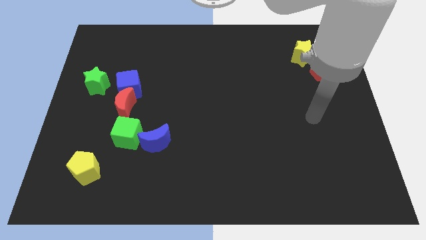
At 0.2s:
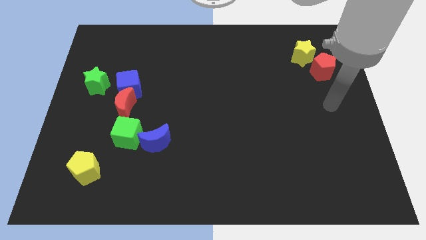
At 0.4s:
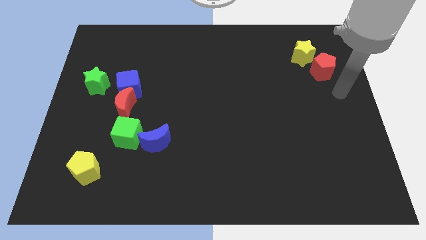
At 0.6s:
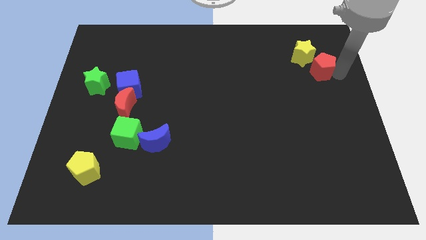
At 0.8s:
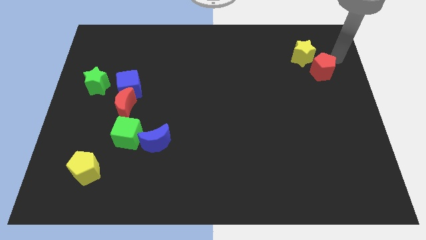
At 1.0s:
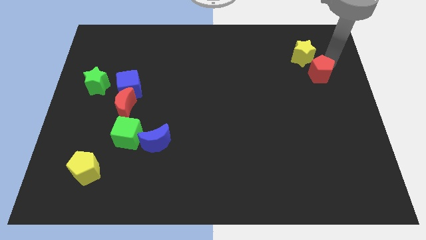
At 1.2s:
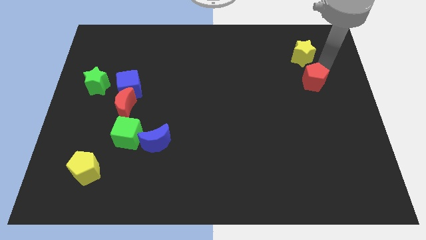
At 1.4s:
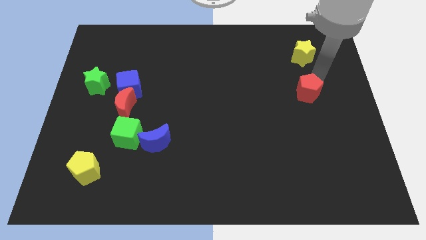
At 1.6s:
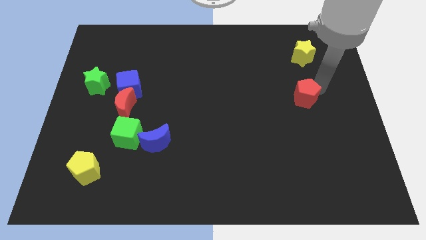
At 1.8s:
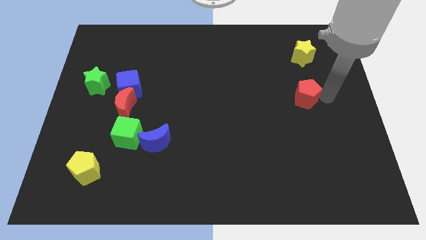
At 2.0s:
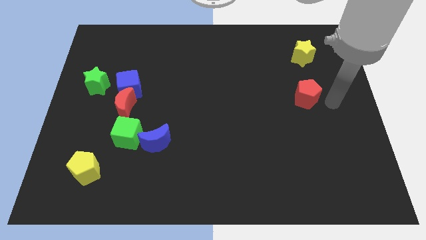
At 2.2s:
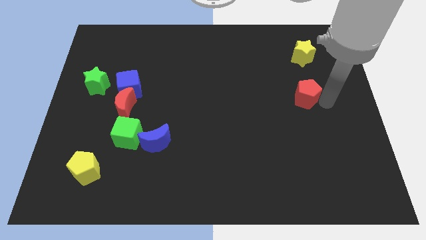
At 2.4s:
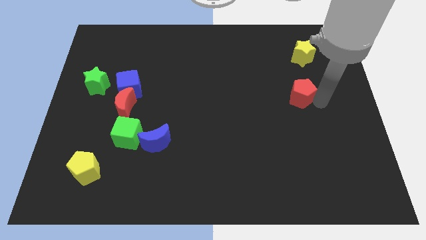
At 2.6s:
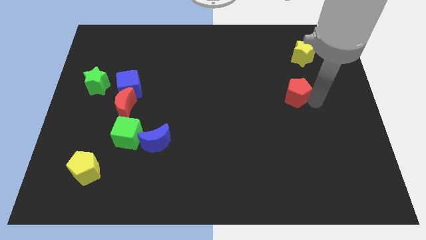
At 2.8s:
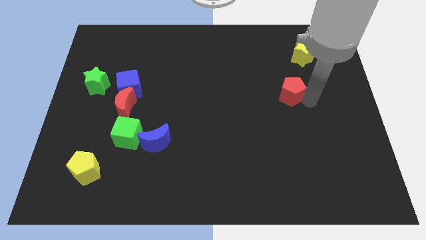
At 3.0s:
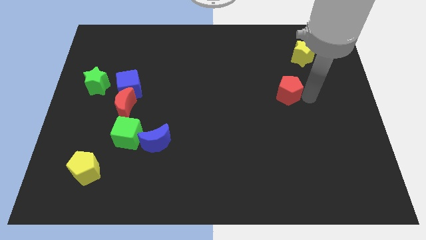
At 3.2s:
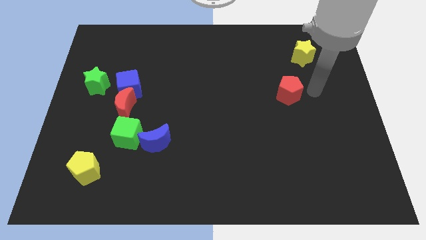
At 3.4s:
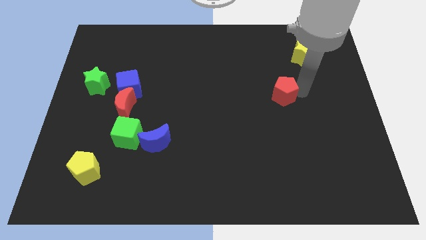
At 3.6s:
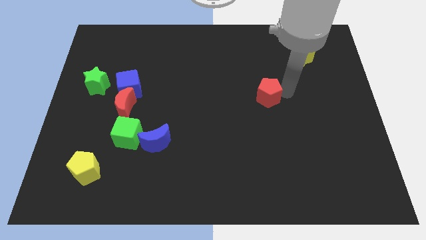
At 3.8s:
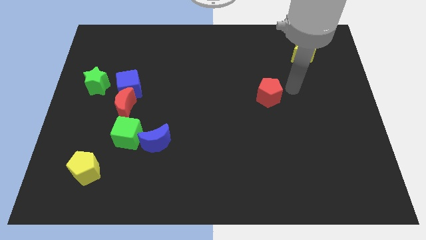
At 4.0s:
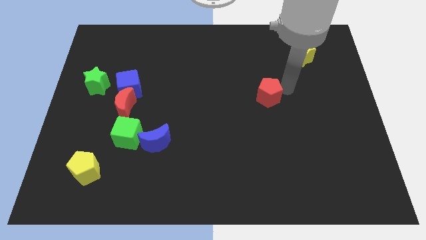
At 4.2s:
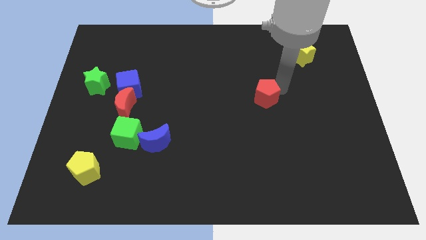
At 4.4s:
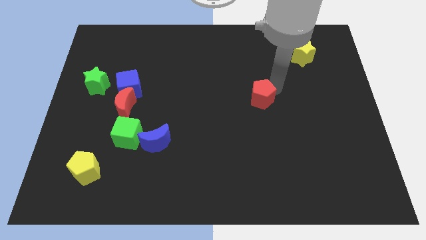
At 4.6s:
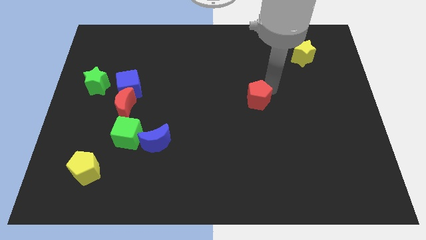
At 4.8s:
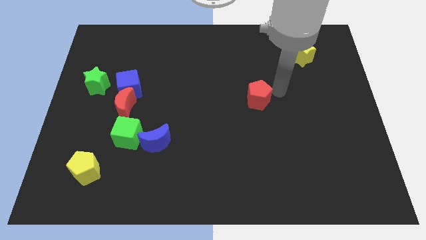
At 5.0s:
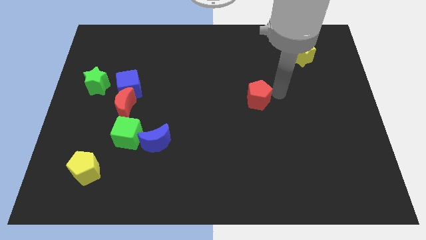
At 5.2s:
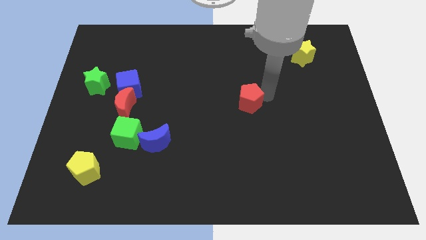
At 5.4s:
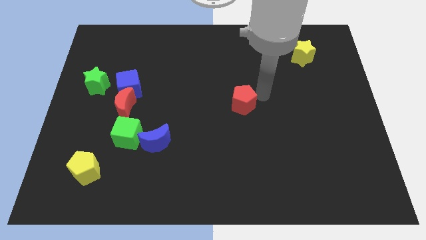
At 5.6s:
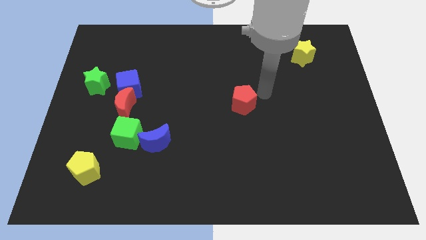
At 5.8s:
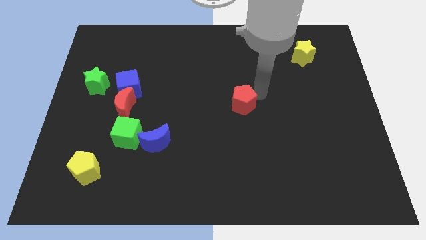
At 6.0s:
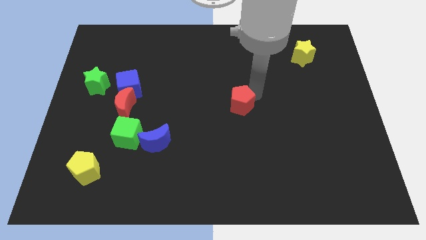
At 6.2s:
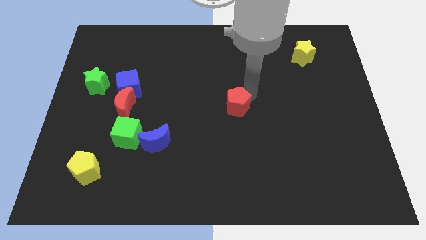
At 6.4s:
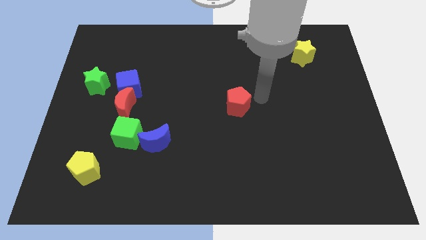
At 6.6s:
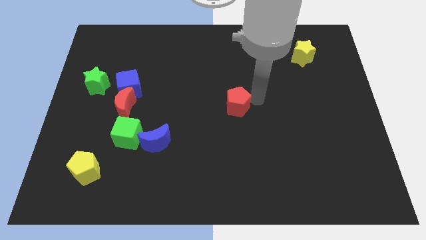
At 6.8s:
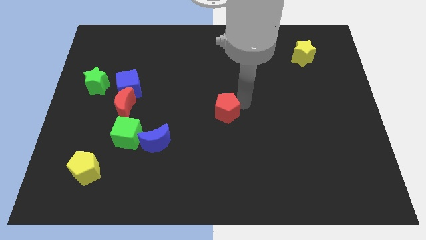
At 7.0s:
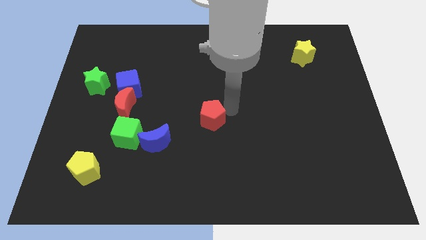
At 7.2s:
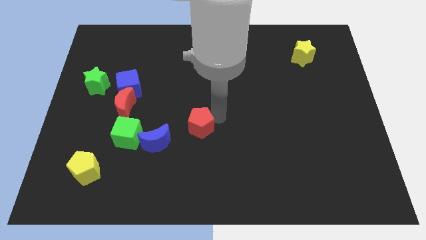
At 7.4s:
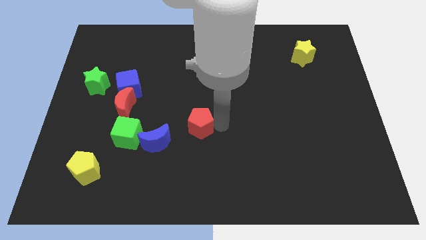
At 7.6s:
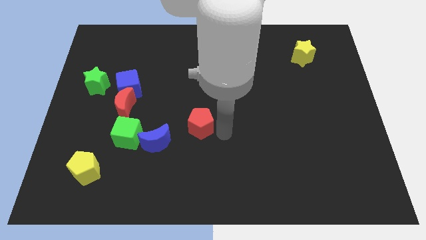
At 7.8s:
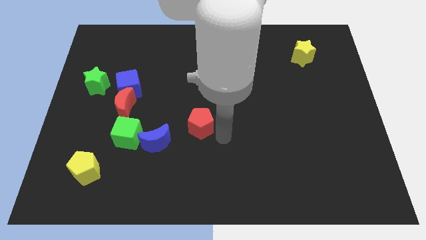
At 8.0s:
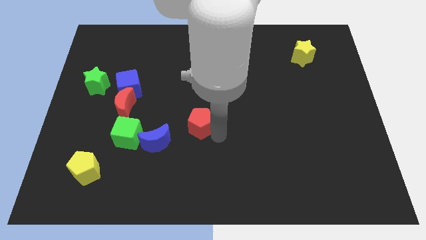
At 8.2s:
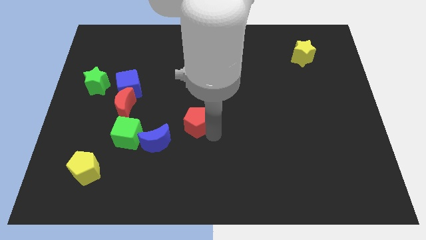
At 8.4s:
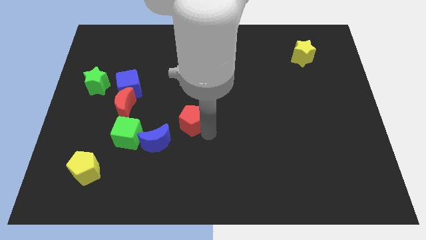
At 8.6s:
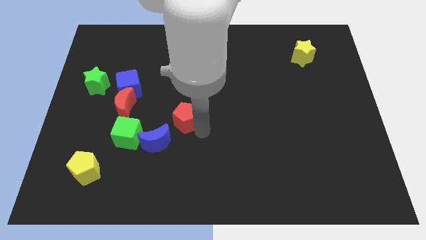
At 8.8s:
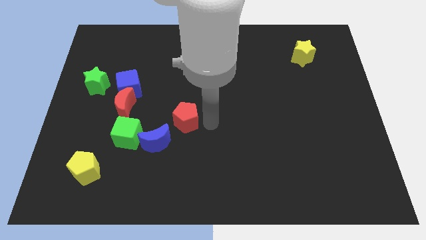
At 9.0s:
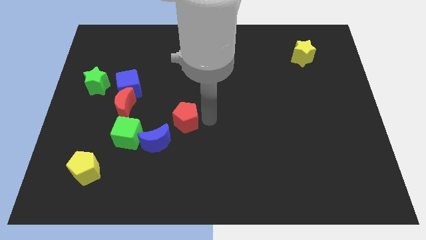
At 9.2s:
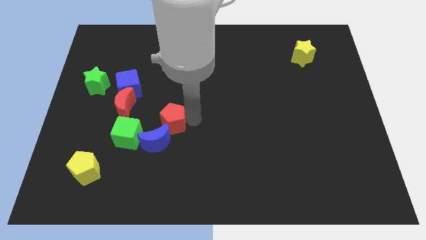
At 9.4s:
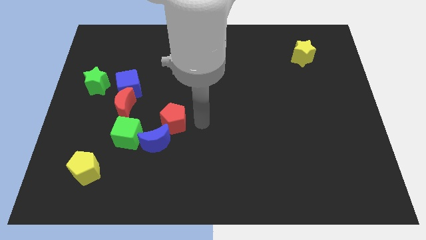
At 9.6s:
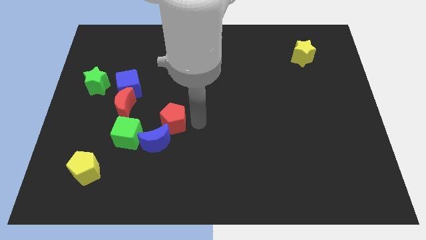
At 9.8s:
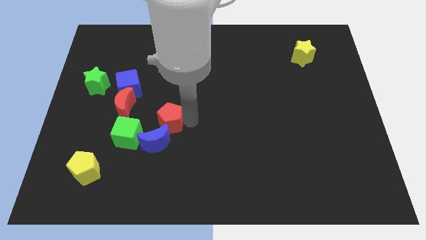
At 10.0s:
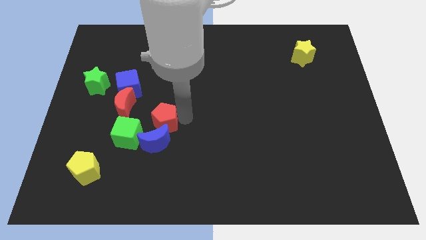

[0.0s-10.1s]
put the red pentagon diagonally down and to the right of the red moon

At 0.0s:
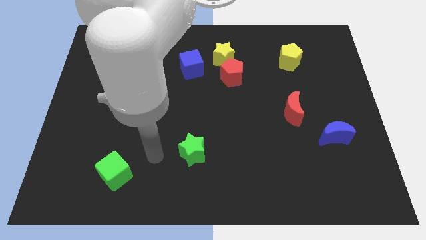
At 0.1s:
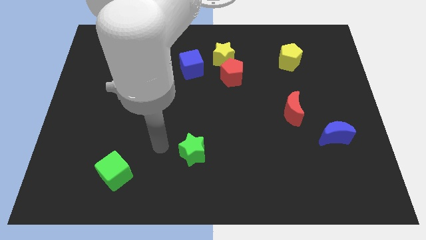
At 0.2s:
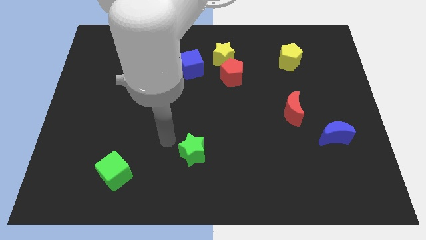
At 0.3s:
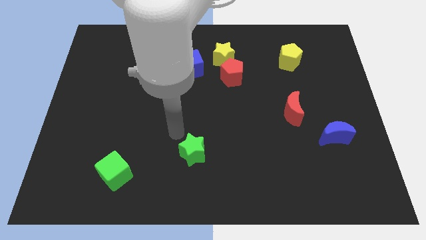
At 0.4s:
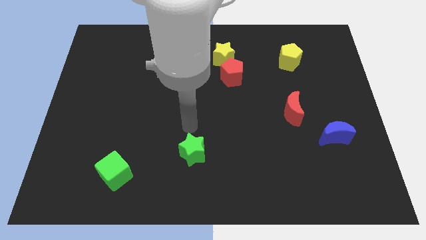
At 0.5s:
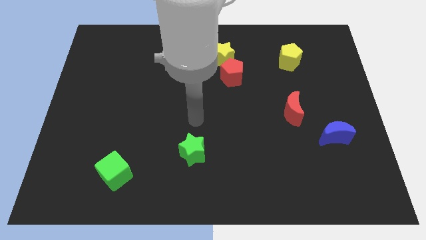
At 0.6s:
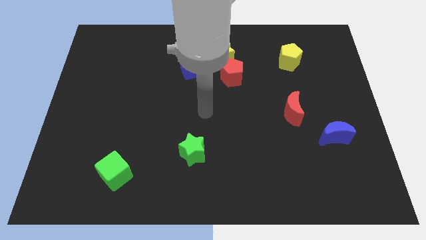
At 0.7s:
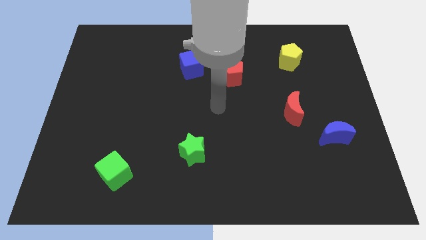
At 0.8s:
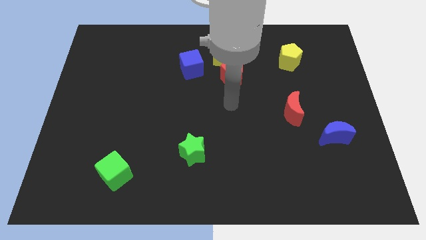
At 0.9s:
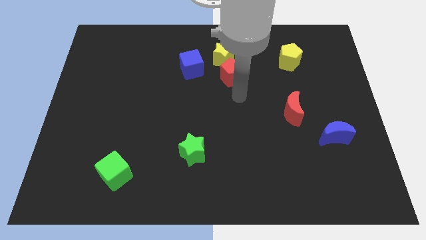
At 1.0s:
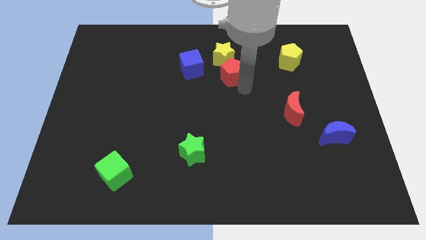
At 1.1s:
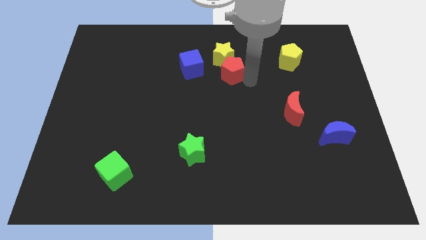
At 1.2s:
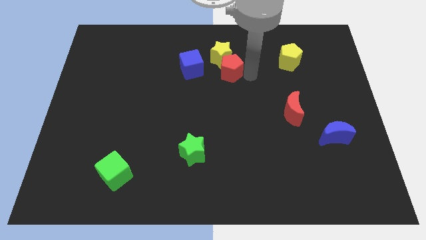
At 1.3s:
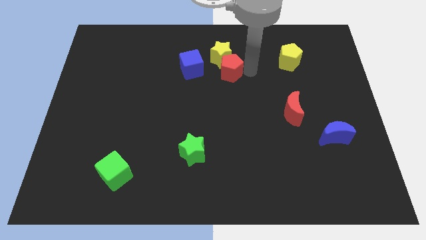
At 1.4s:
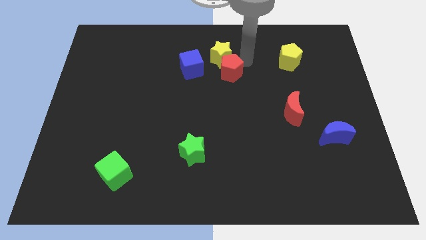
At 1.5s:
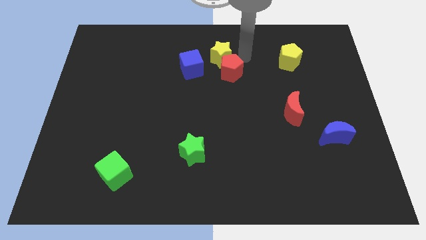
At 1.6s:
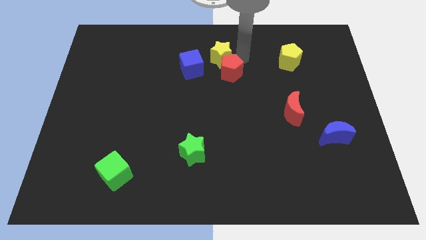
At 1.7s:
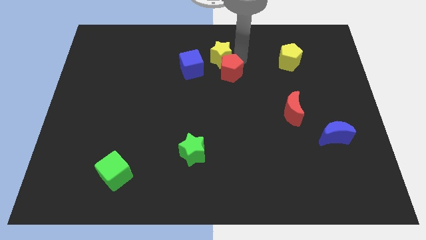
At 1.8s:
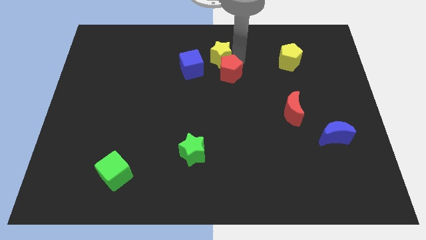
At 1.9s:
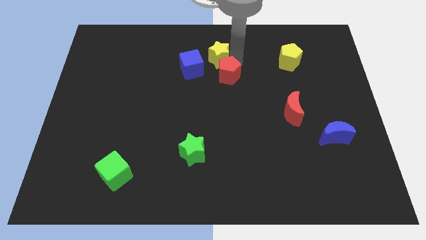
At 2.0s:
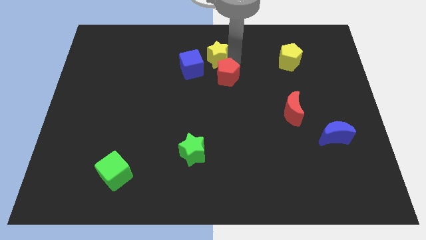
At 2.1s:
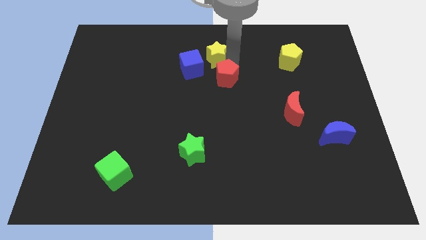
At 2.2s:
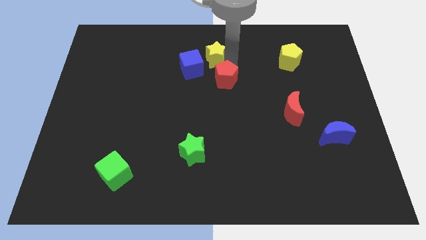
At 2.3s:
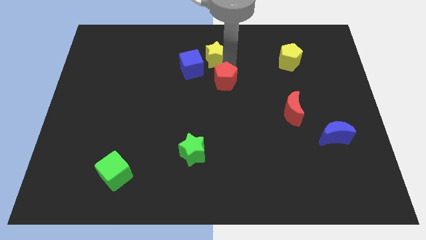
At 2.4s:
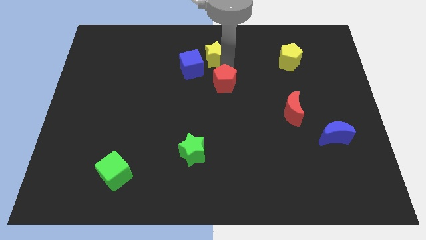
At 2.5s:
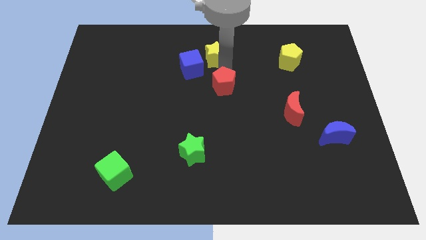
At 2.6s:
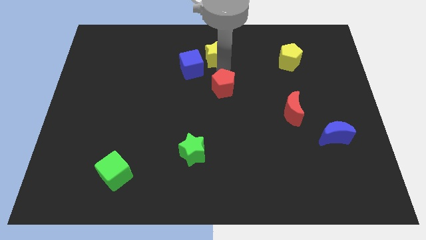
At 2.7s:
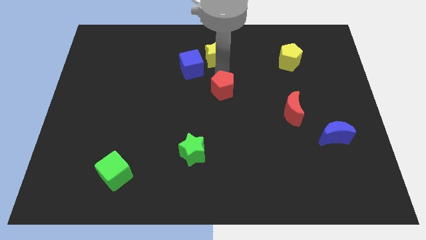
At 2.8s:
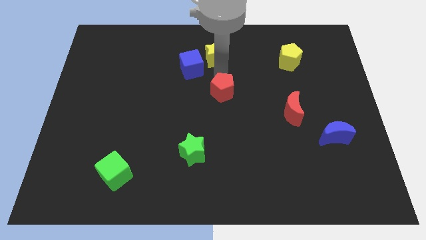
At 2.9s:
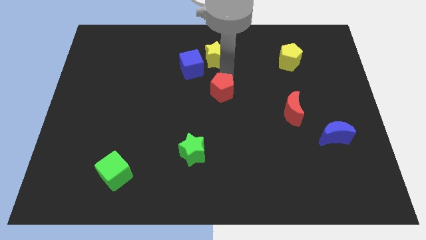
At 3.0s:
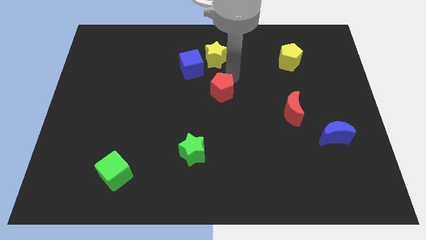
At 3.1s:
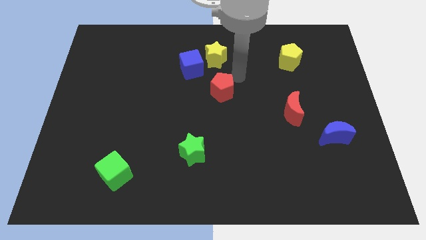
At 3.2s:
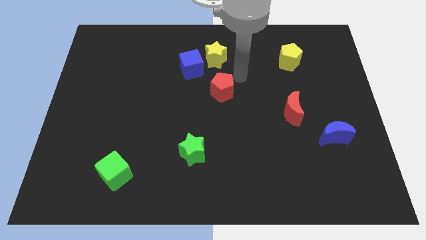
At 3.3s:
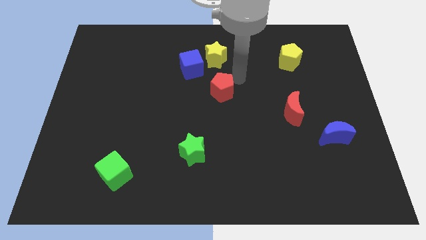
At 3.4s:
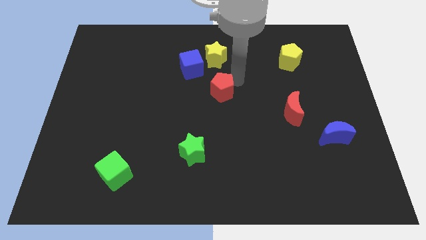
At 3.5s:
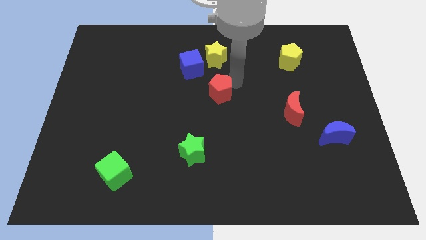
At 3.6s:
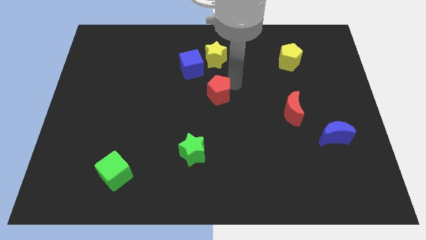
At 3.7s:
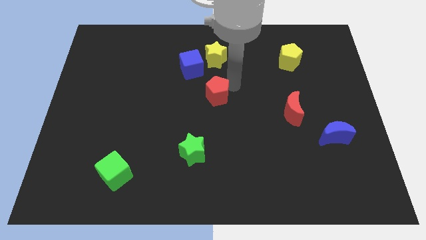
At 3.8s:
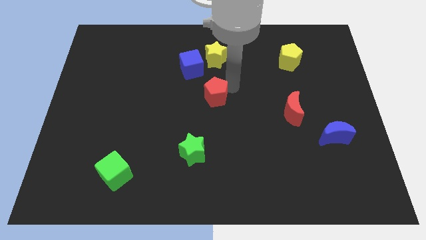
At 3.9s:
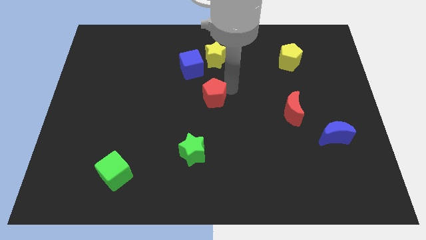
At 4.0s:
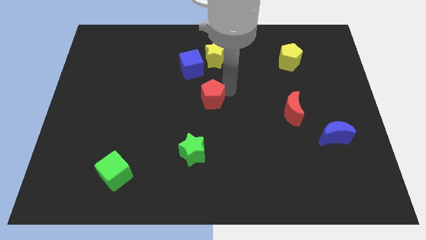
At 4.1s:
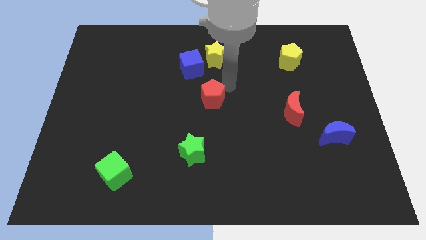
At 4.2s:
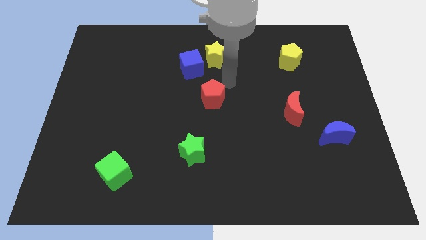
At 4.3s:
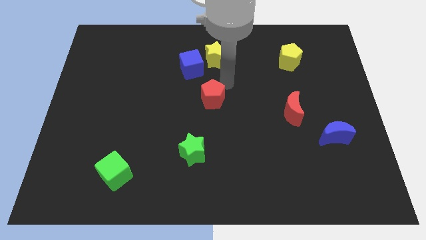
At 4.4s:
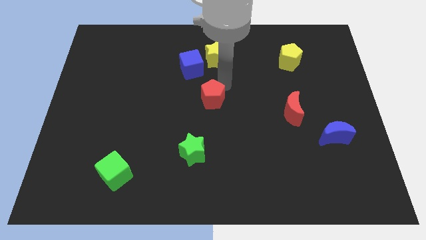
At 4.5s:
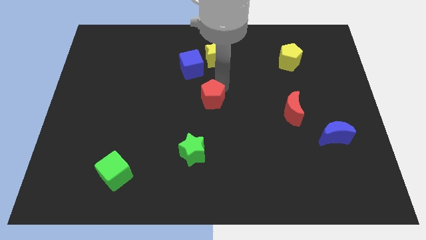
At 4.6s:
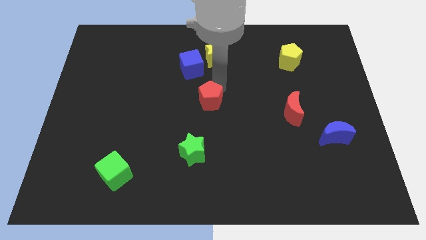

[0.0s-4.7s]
slide the red pentagon above the green star
